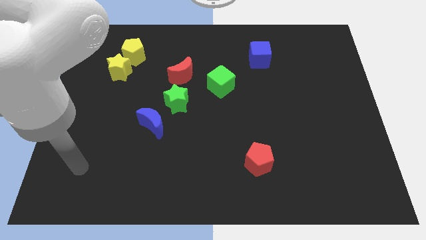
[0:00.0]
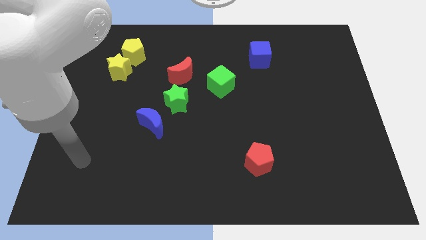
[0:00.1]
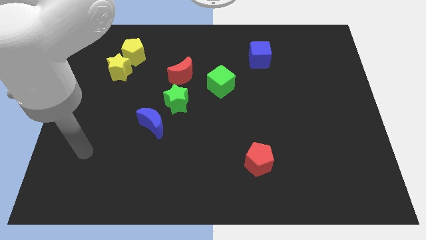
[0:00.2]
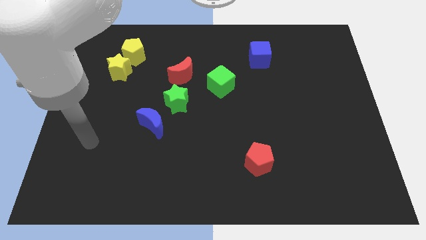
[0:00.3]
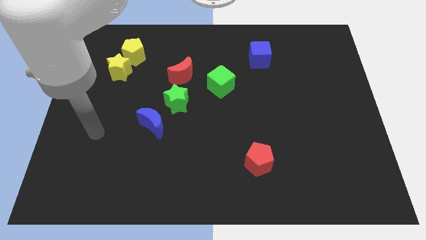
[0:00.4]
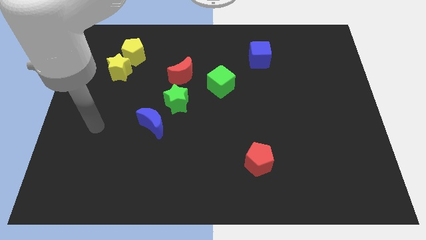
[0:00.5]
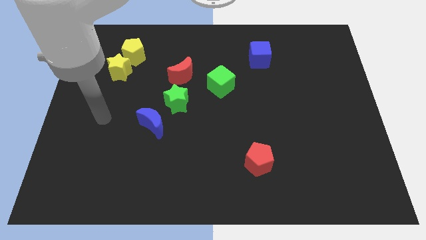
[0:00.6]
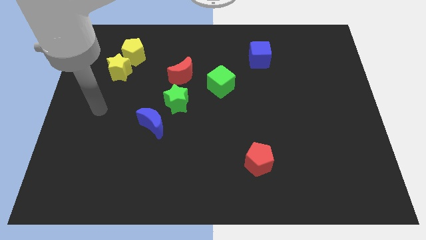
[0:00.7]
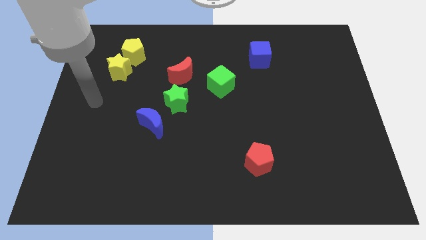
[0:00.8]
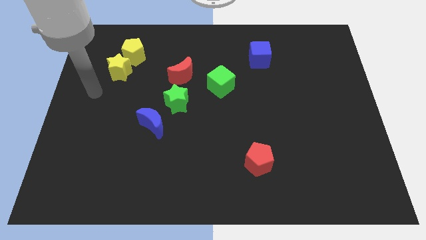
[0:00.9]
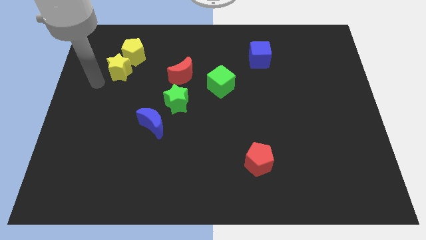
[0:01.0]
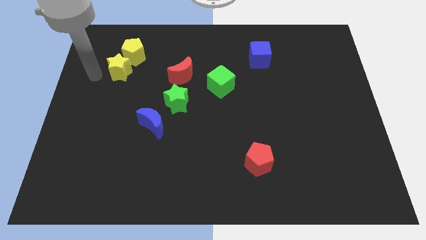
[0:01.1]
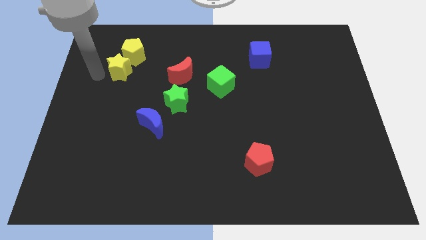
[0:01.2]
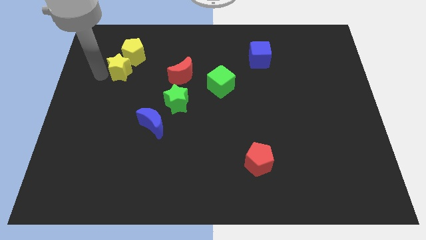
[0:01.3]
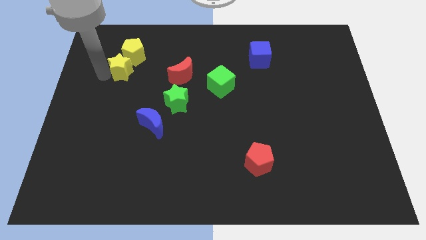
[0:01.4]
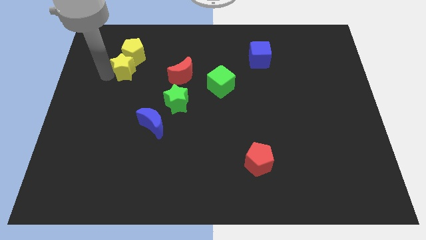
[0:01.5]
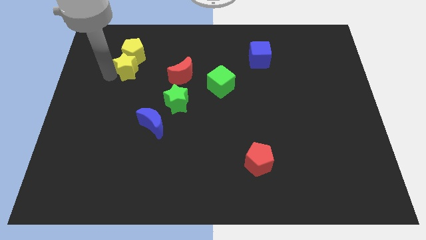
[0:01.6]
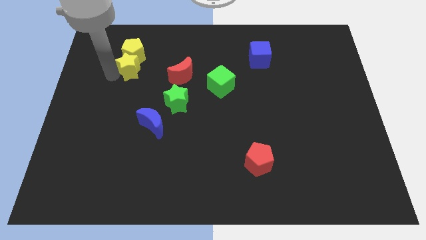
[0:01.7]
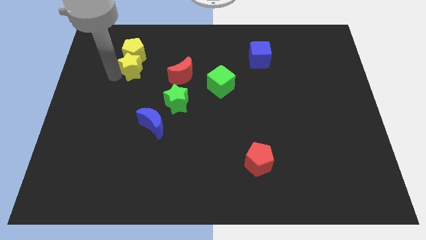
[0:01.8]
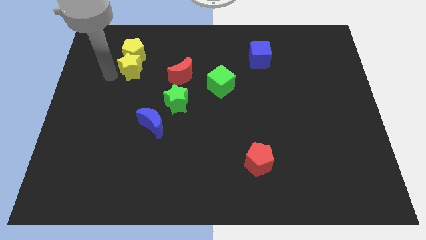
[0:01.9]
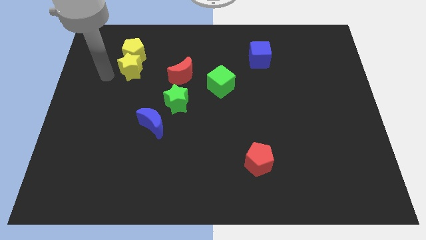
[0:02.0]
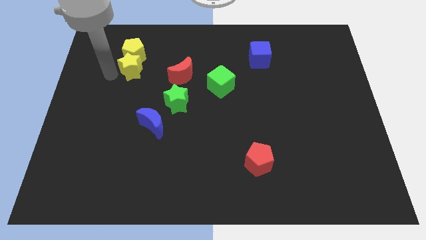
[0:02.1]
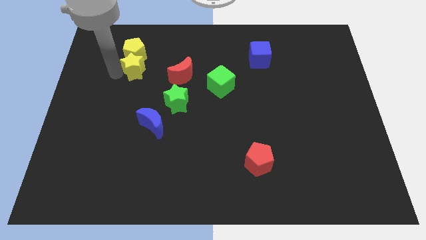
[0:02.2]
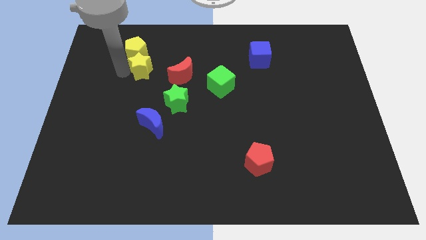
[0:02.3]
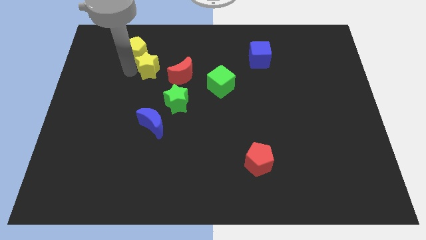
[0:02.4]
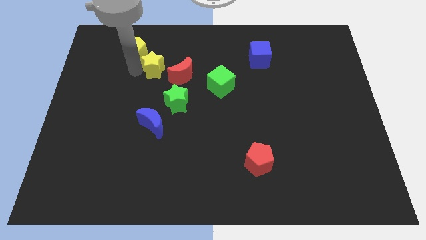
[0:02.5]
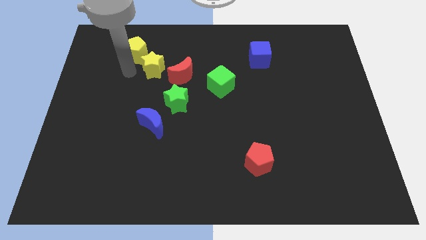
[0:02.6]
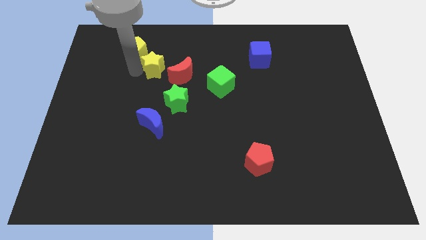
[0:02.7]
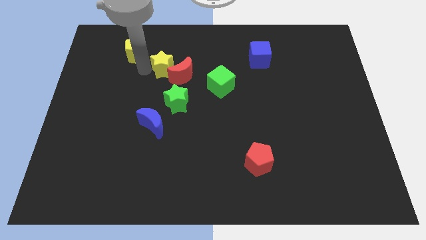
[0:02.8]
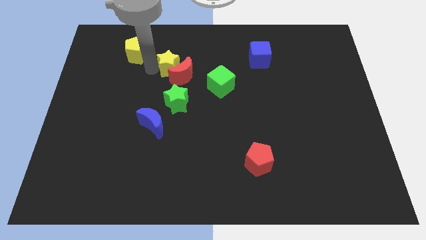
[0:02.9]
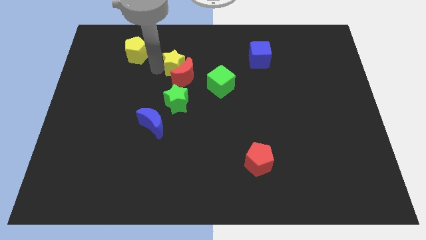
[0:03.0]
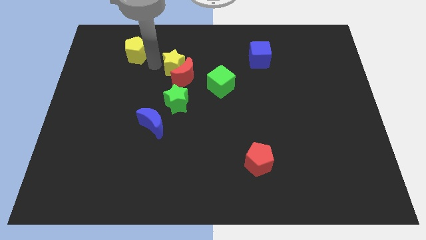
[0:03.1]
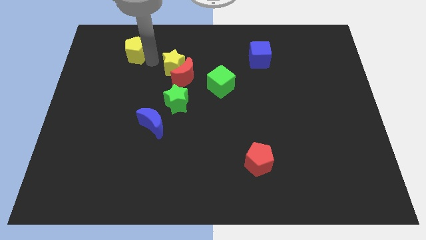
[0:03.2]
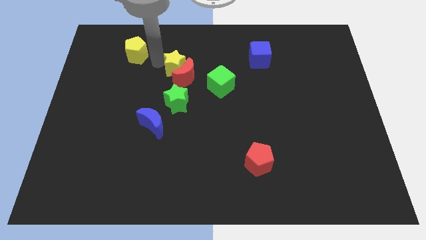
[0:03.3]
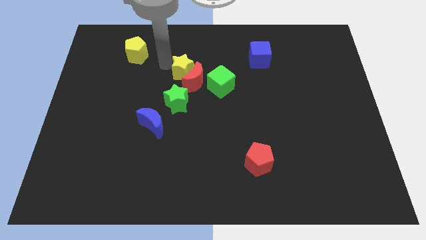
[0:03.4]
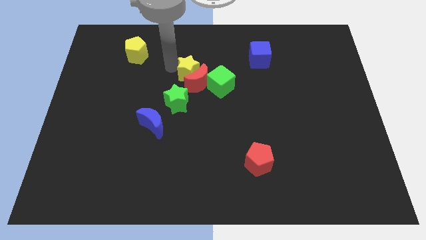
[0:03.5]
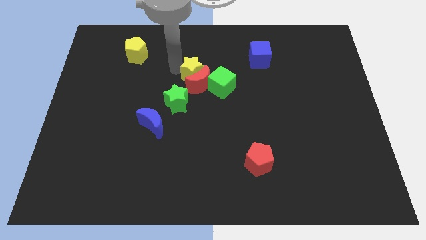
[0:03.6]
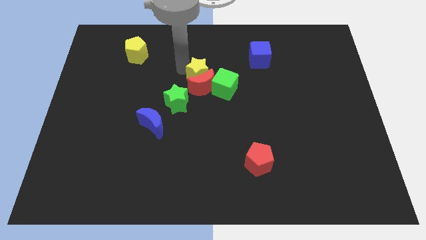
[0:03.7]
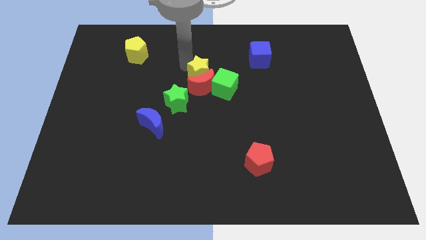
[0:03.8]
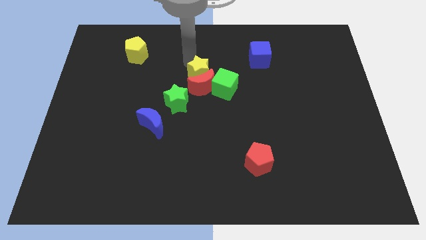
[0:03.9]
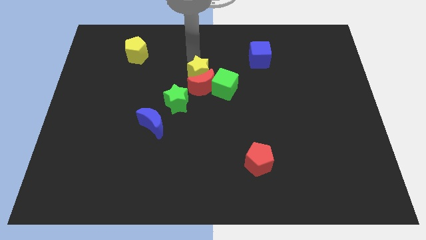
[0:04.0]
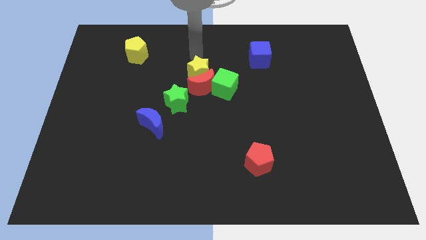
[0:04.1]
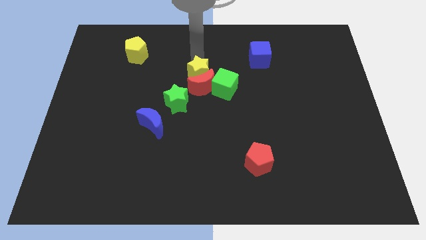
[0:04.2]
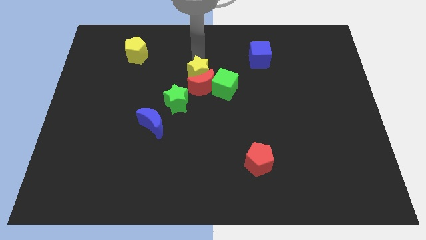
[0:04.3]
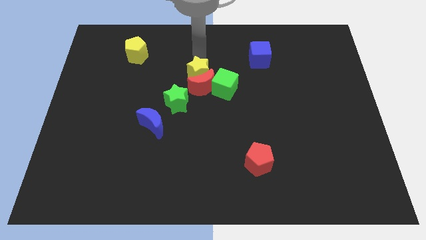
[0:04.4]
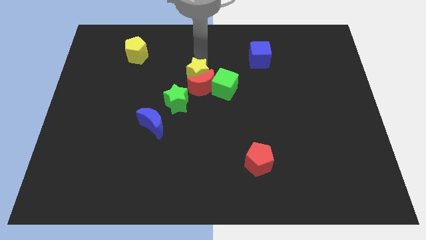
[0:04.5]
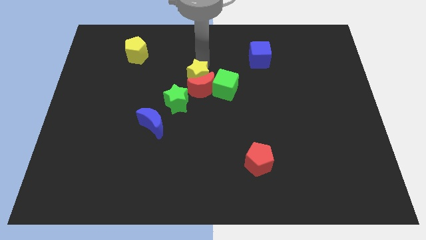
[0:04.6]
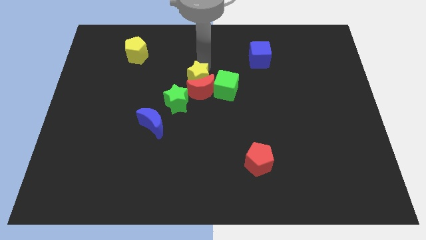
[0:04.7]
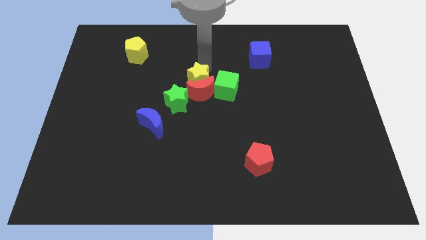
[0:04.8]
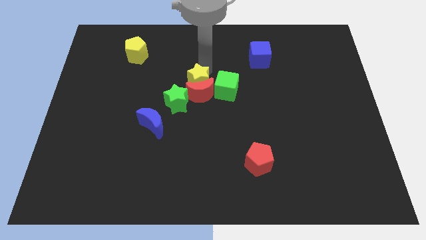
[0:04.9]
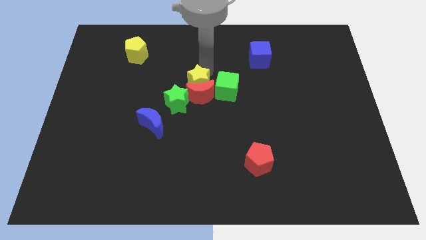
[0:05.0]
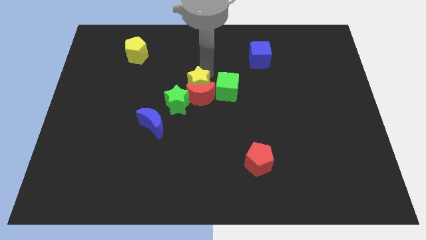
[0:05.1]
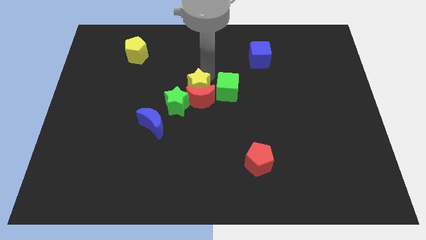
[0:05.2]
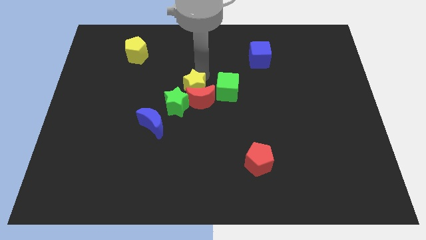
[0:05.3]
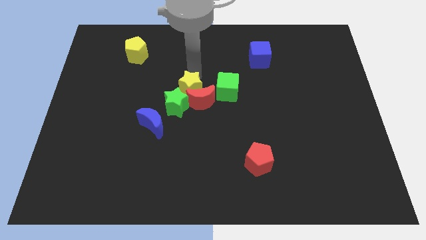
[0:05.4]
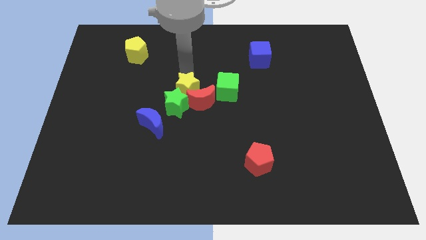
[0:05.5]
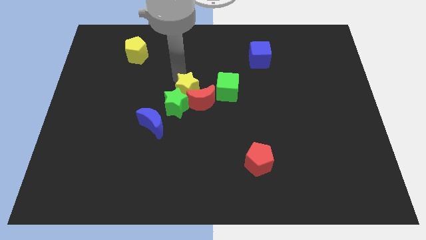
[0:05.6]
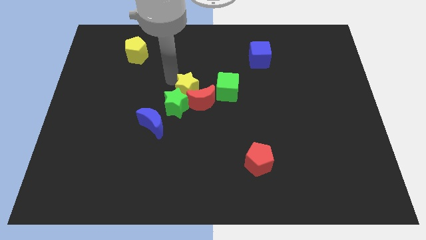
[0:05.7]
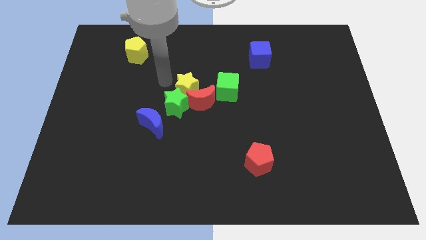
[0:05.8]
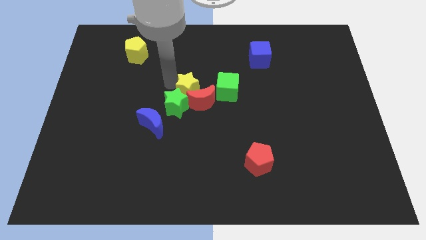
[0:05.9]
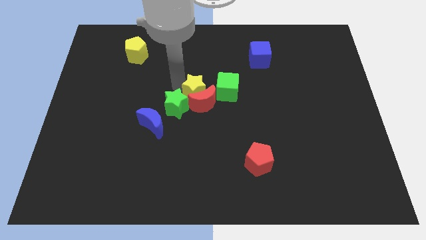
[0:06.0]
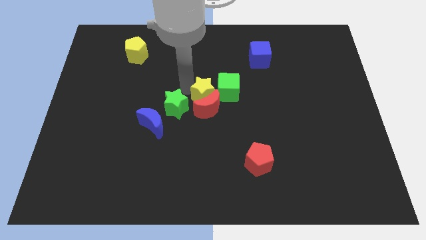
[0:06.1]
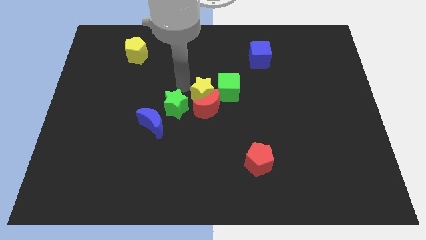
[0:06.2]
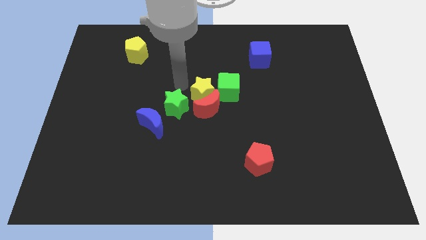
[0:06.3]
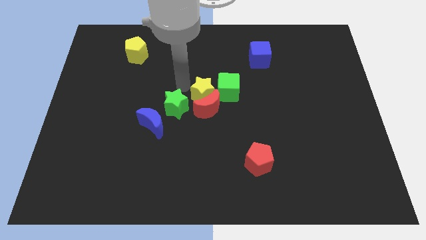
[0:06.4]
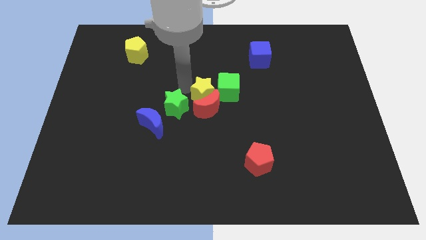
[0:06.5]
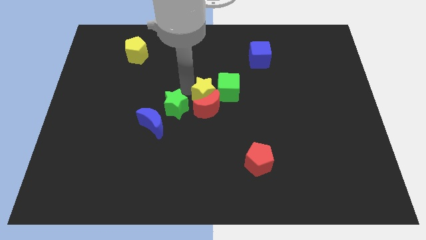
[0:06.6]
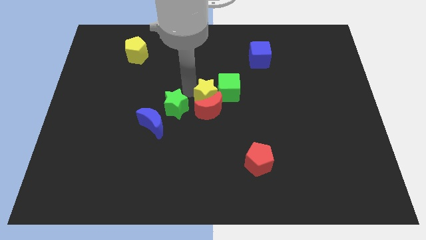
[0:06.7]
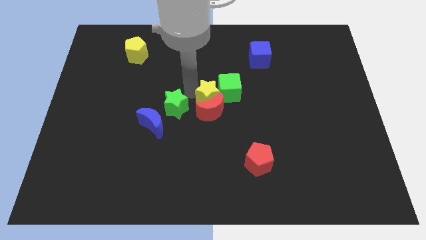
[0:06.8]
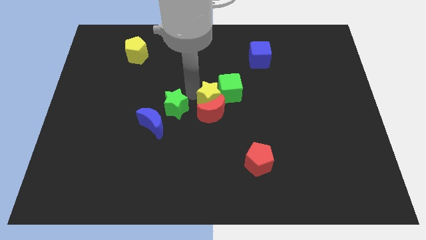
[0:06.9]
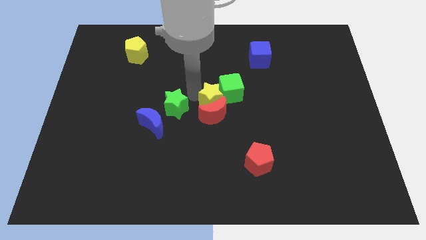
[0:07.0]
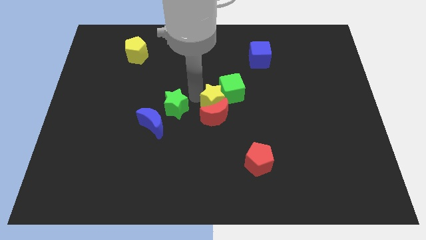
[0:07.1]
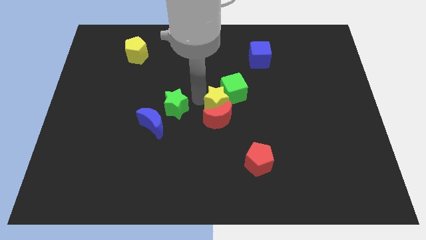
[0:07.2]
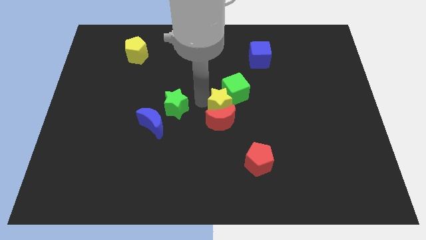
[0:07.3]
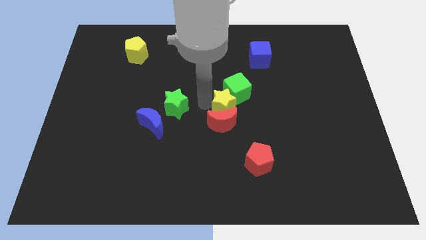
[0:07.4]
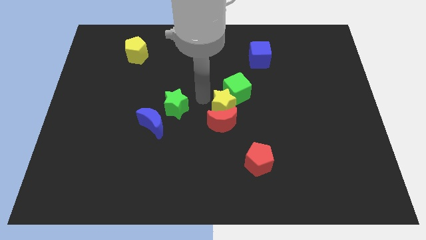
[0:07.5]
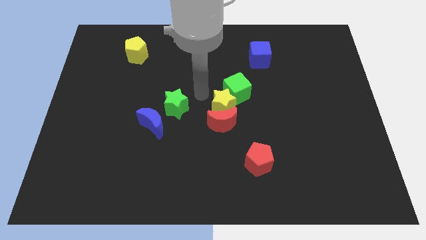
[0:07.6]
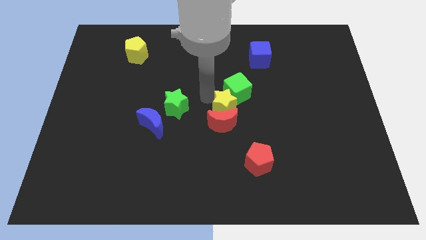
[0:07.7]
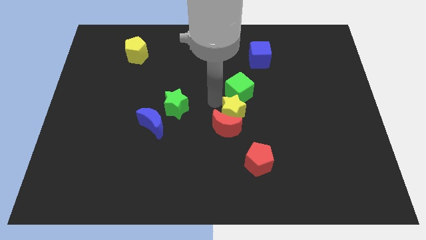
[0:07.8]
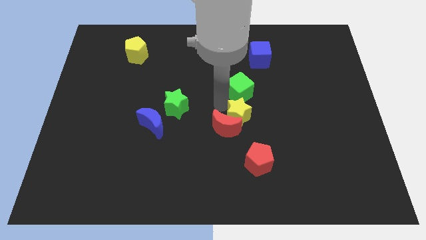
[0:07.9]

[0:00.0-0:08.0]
move the yellow star to the top of the red pentagon
